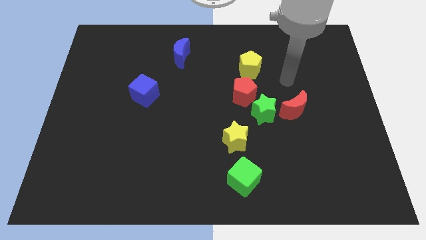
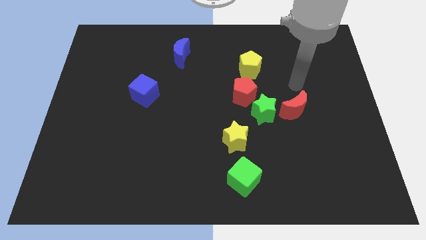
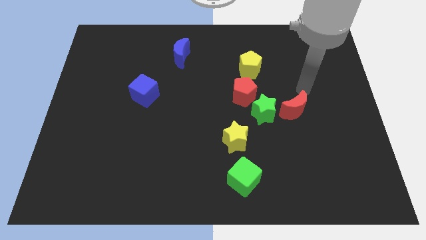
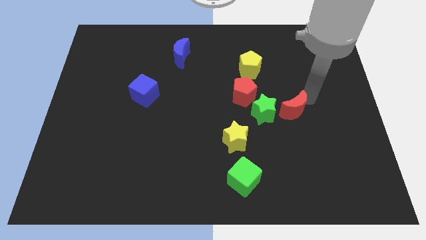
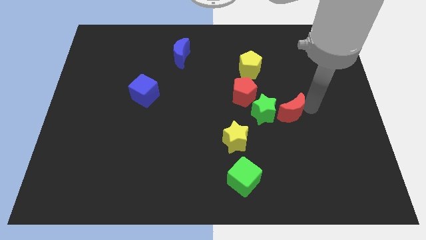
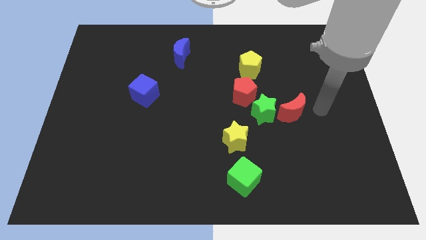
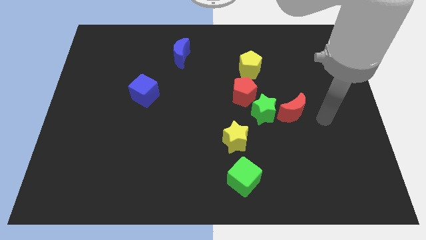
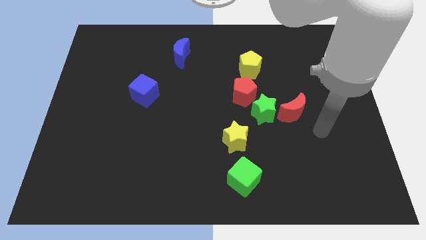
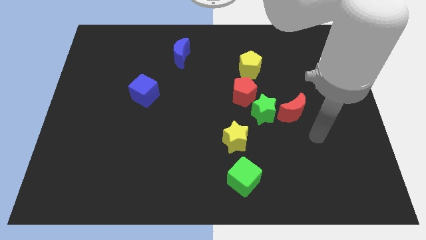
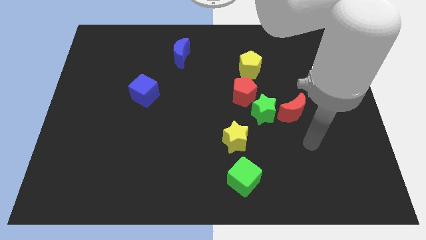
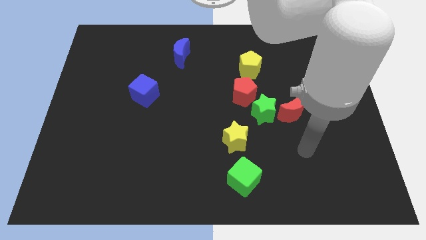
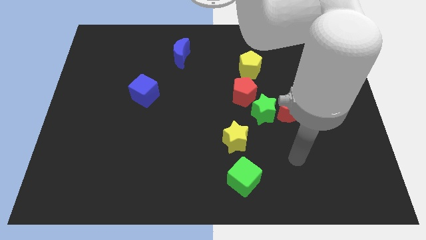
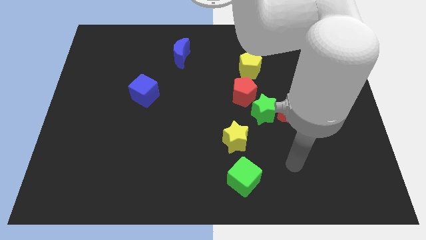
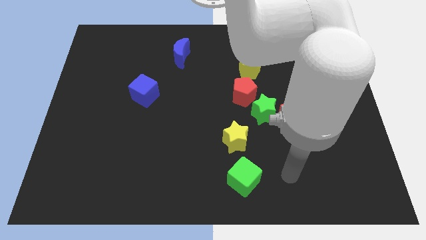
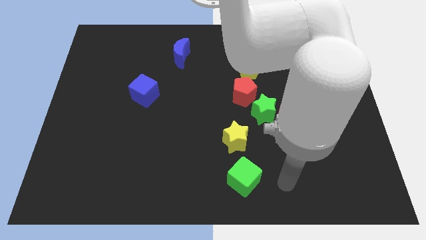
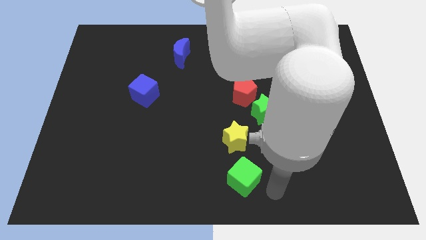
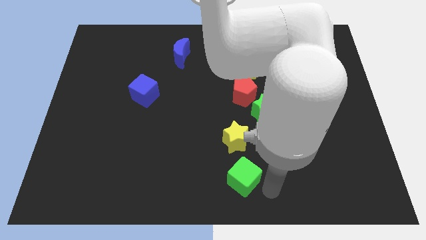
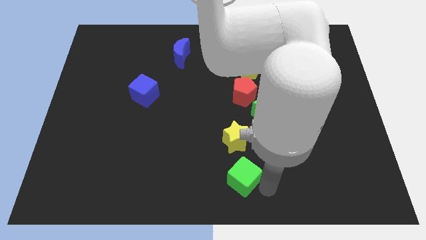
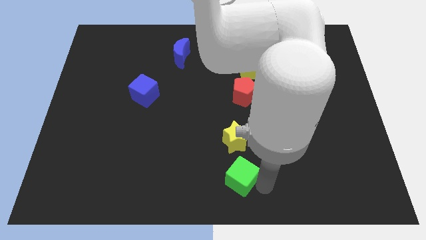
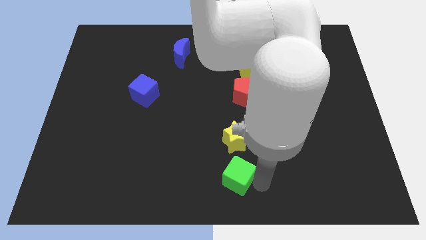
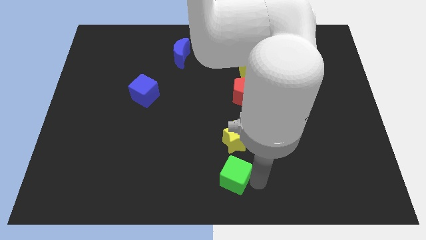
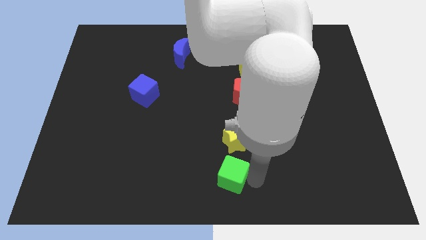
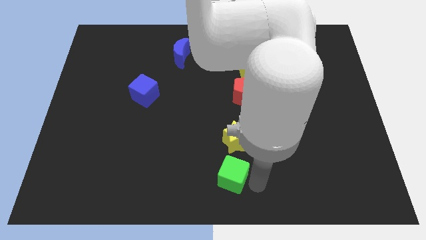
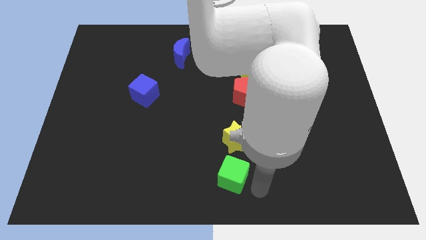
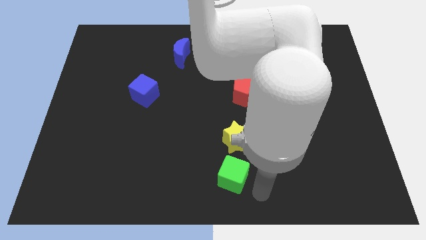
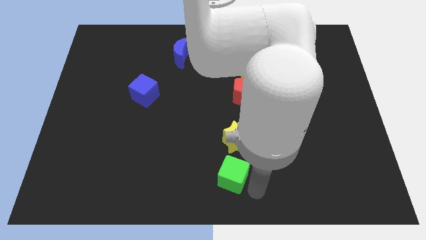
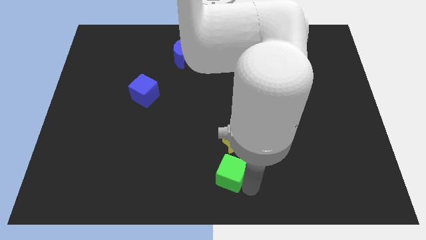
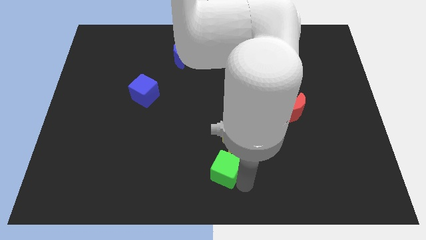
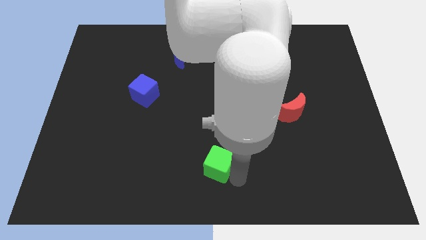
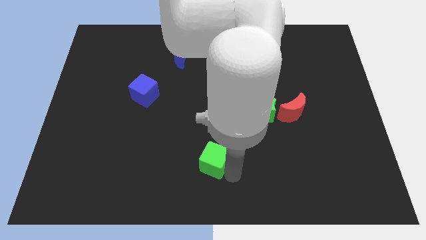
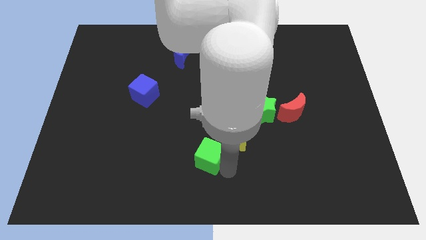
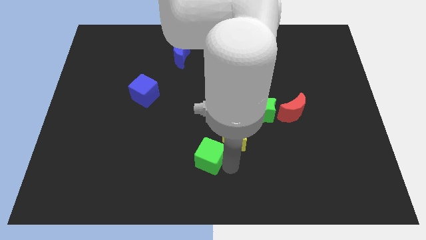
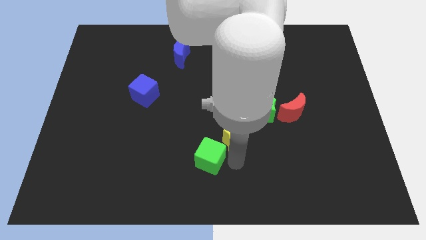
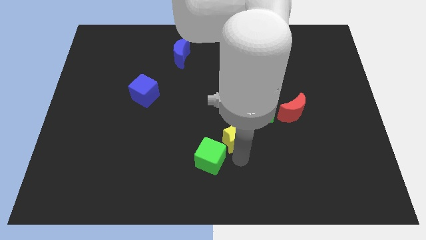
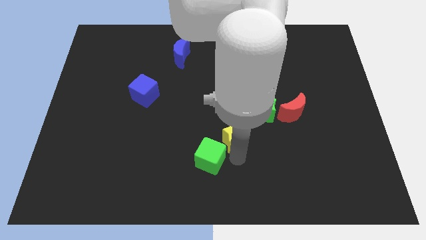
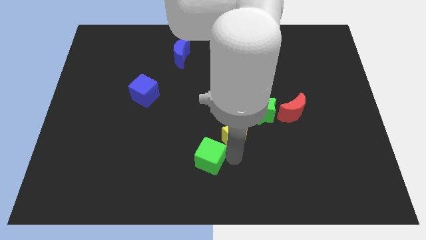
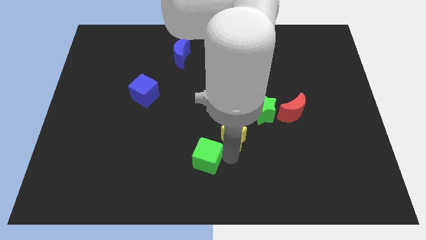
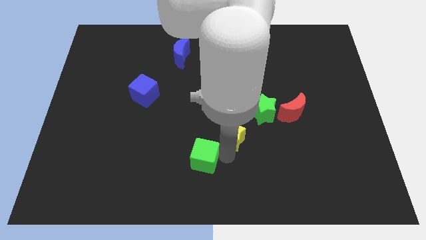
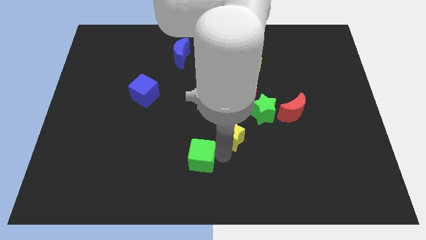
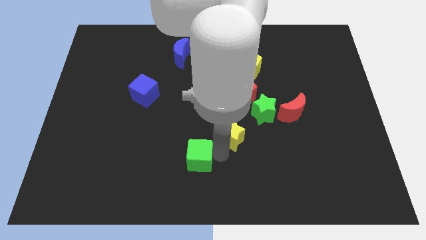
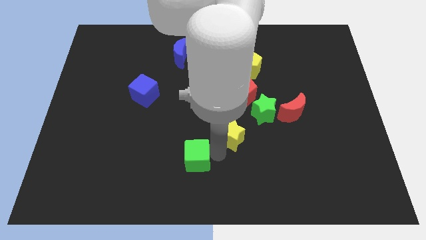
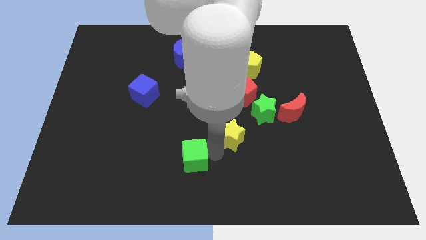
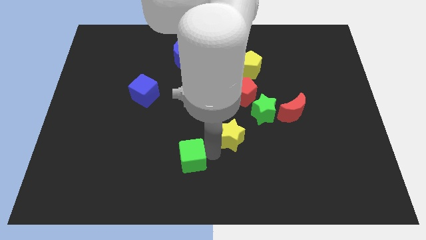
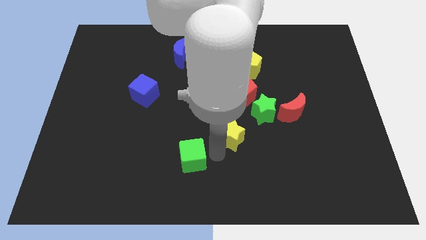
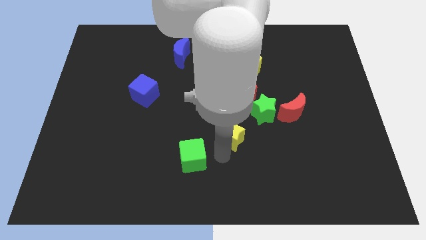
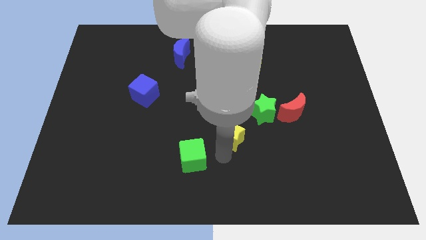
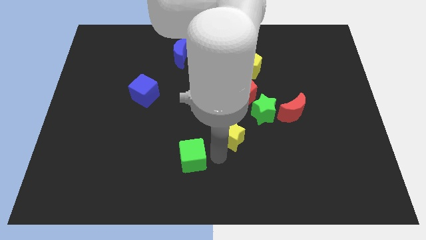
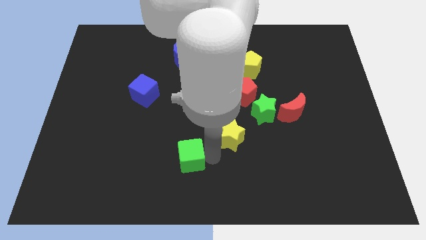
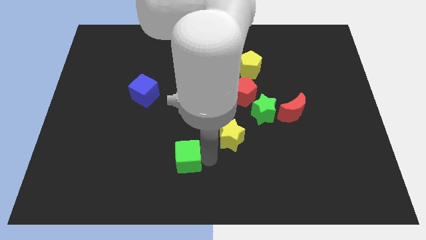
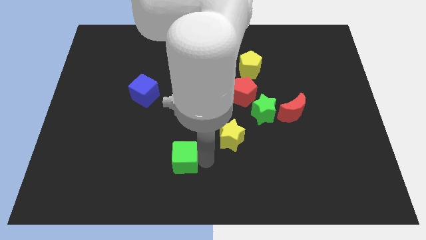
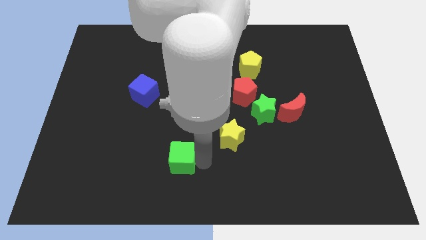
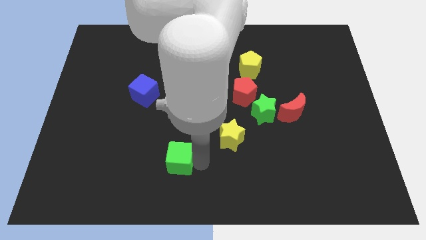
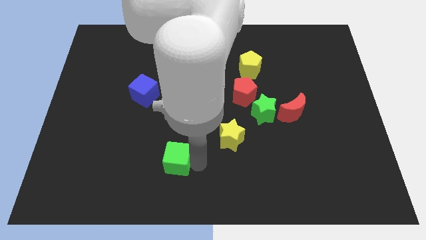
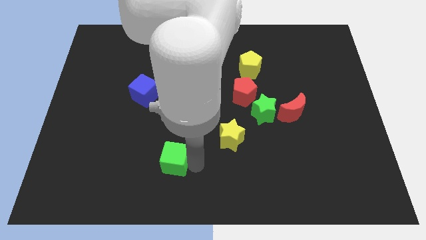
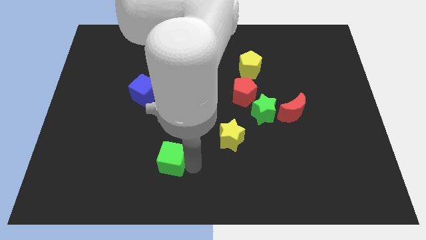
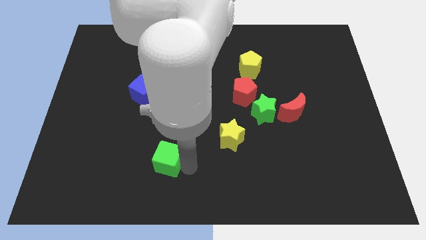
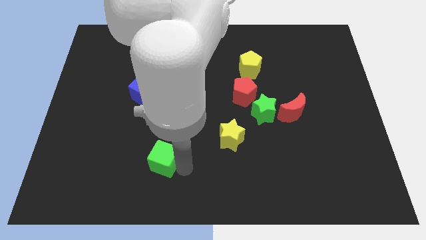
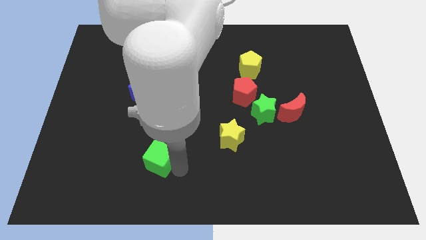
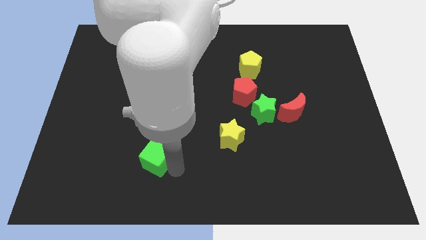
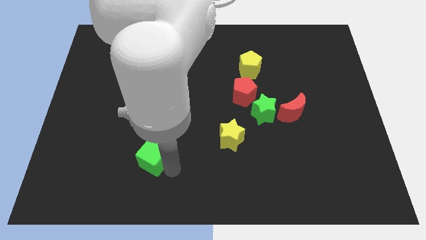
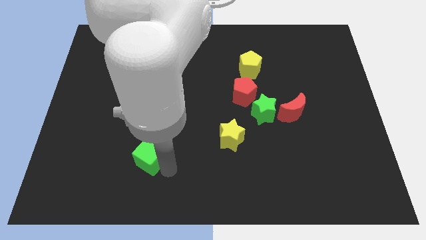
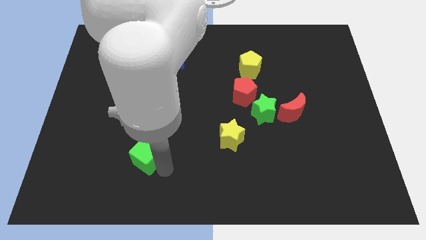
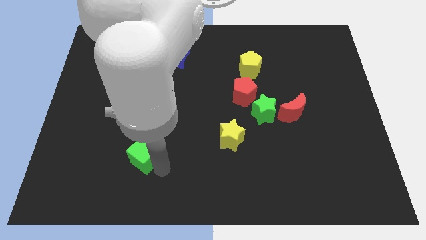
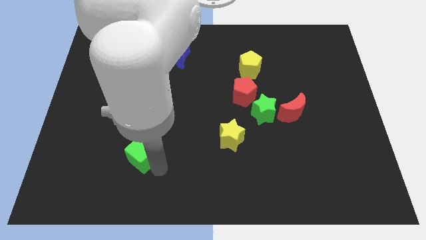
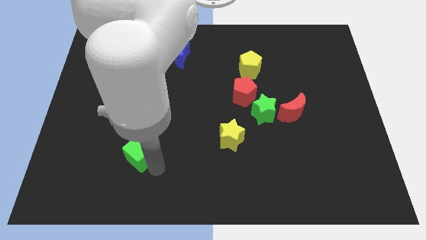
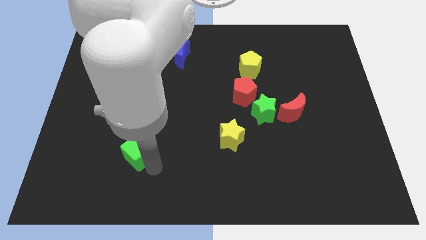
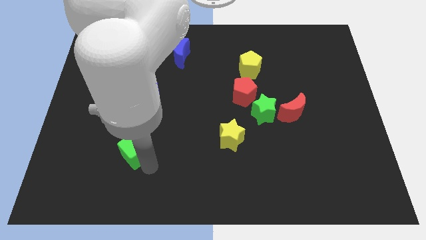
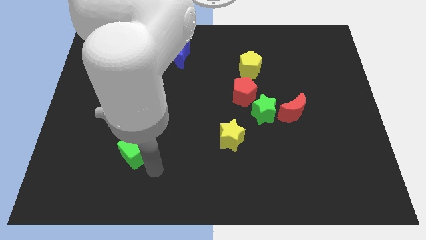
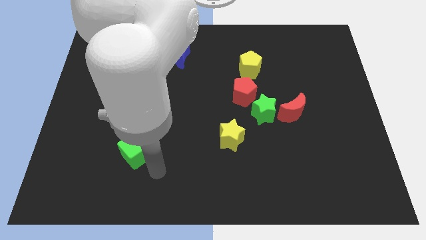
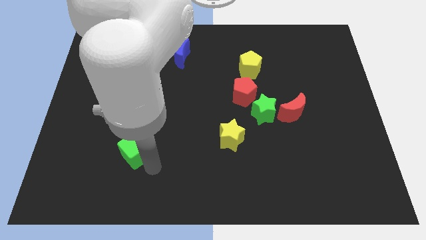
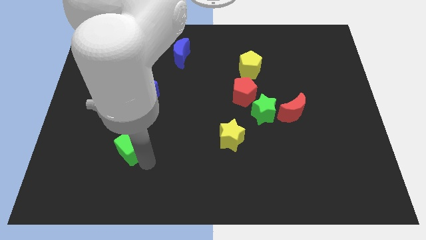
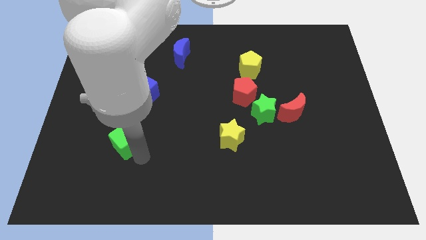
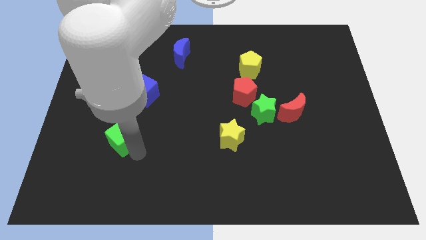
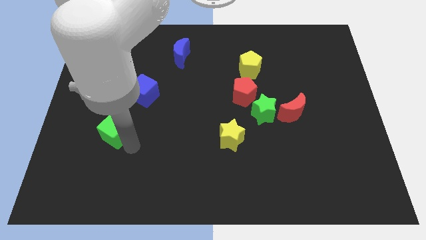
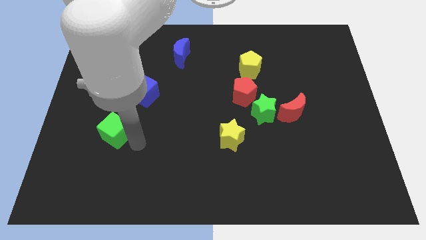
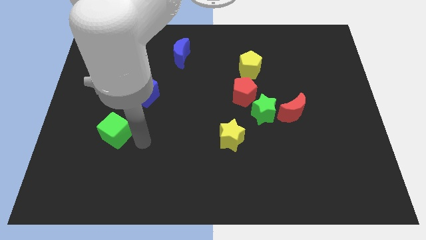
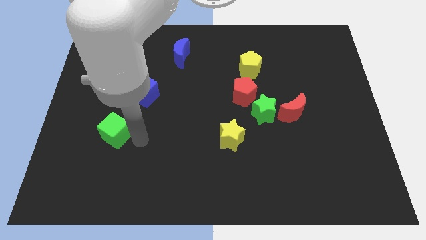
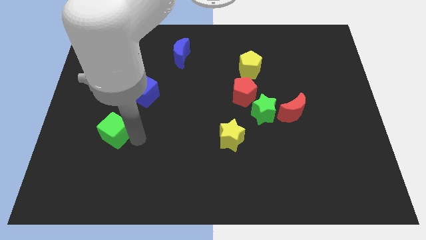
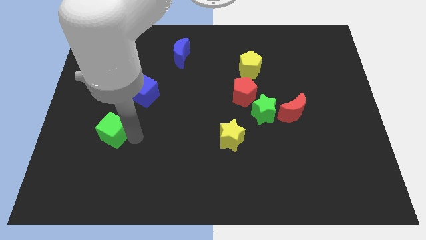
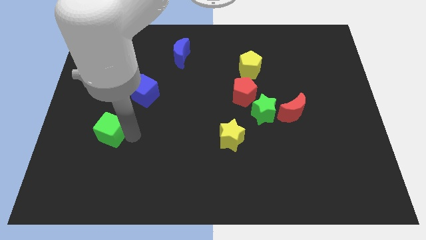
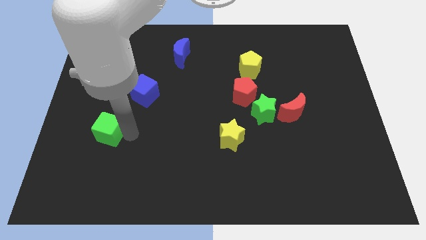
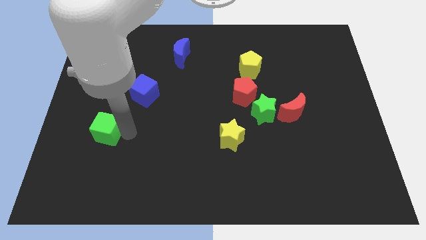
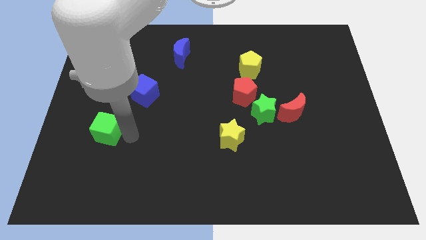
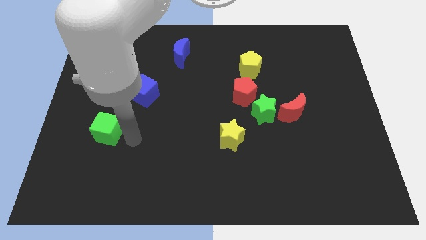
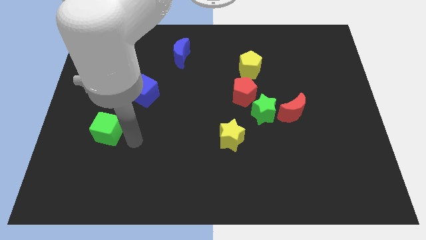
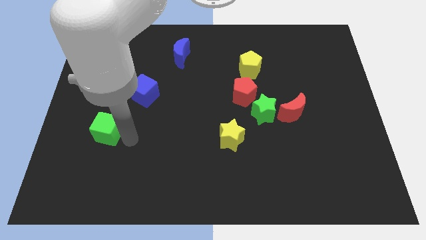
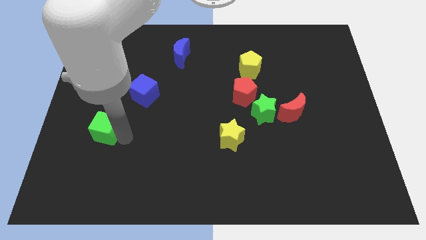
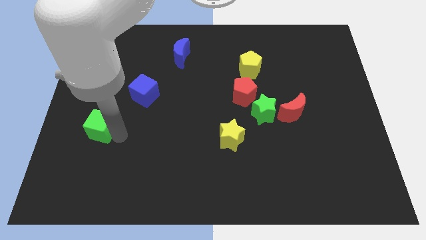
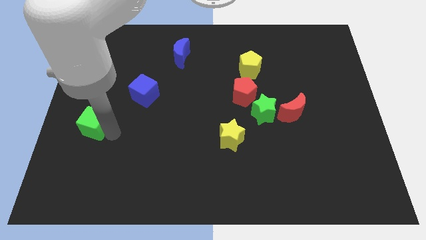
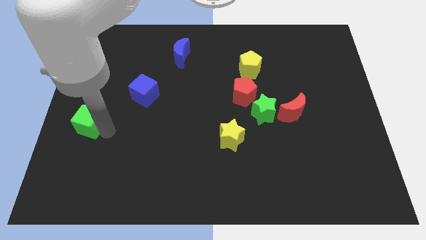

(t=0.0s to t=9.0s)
put the green cube to the left side
